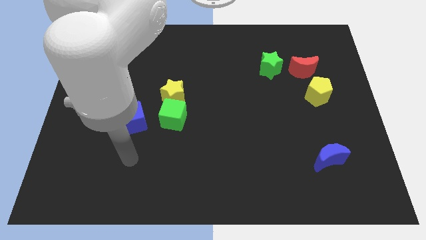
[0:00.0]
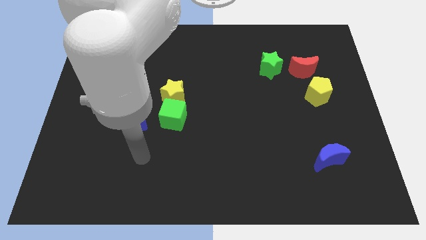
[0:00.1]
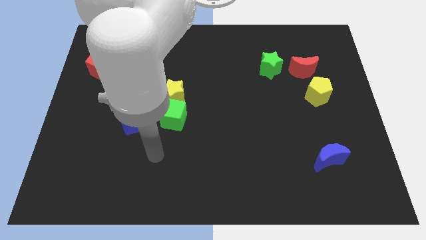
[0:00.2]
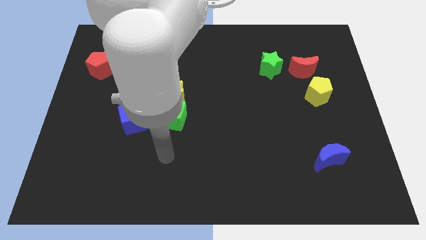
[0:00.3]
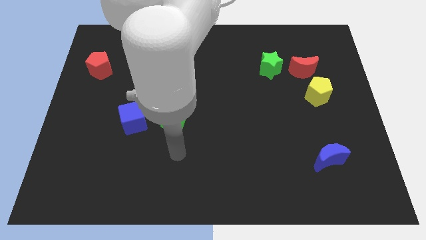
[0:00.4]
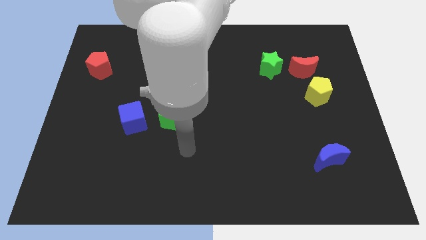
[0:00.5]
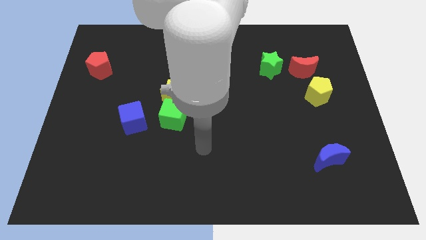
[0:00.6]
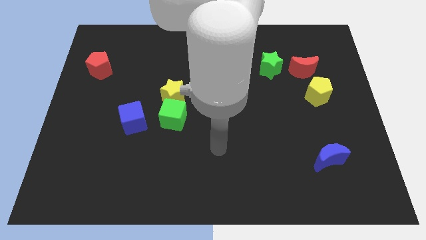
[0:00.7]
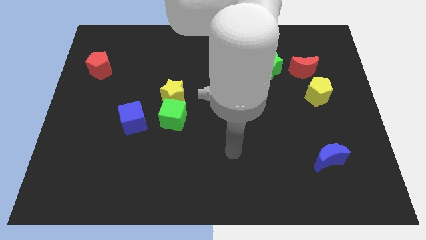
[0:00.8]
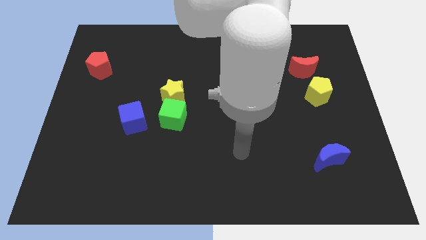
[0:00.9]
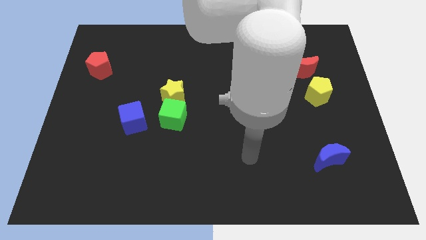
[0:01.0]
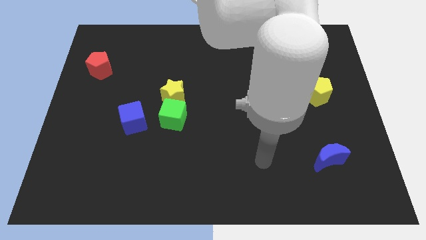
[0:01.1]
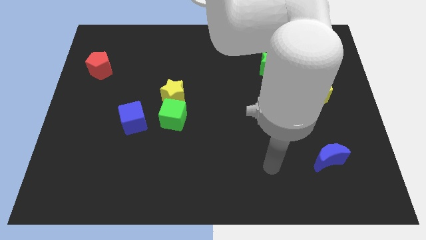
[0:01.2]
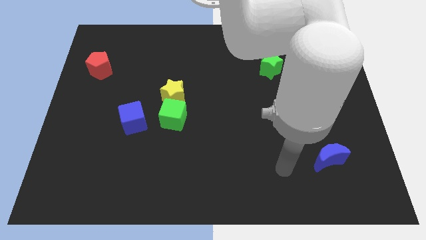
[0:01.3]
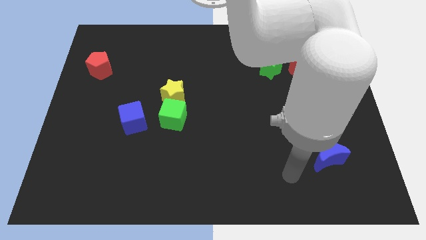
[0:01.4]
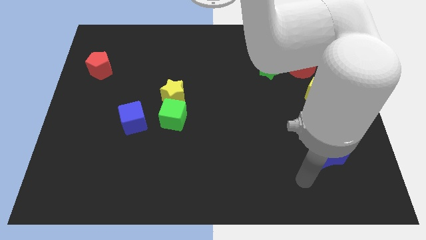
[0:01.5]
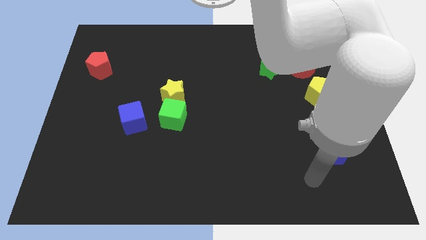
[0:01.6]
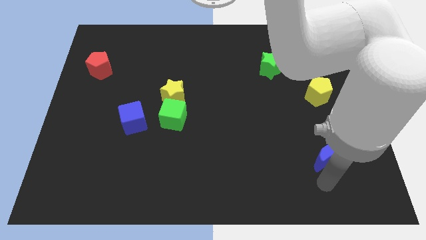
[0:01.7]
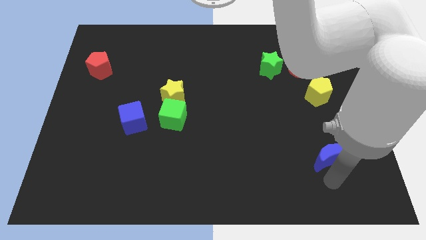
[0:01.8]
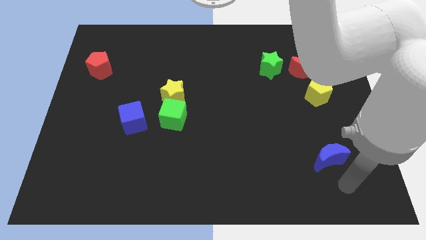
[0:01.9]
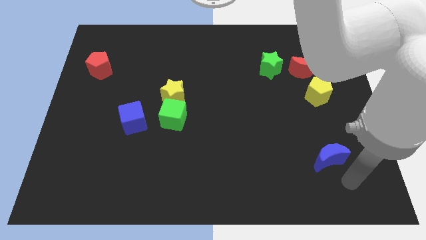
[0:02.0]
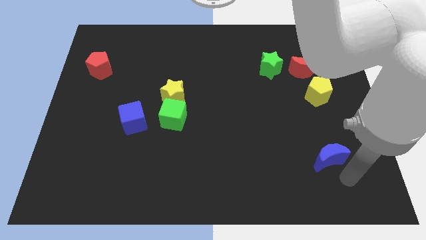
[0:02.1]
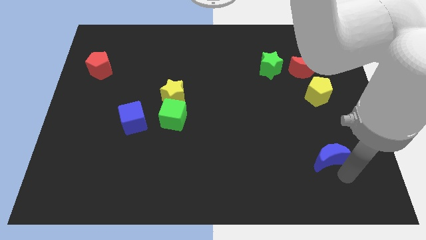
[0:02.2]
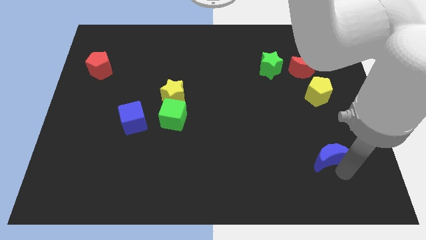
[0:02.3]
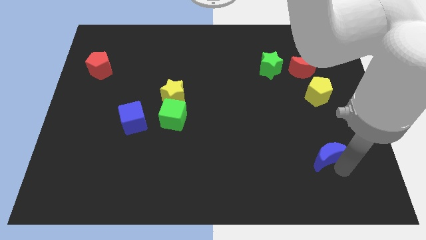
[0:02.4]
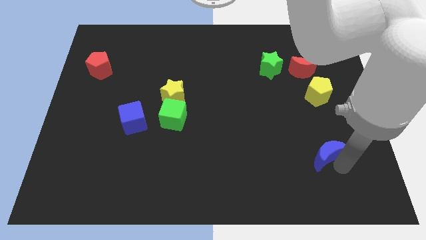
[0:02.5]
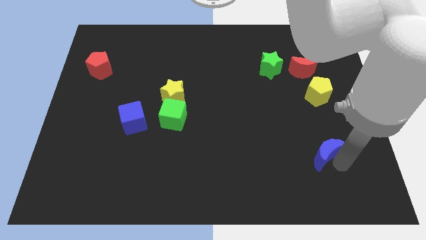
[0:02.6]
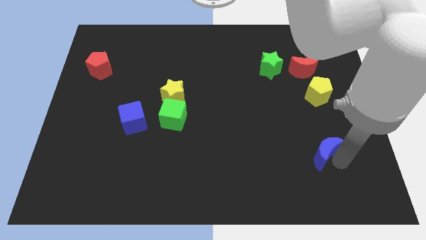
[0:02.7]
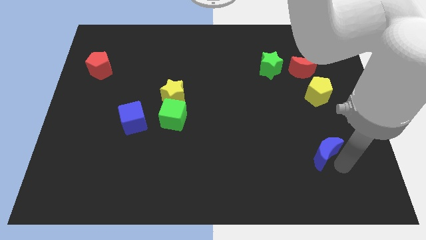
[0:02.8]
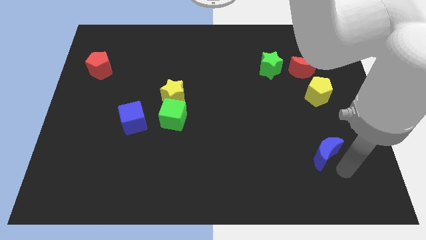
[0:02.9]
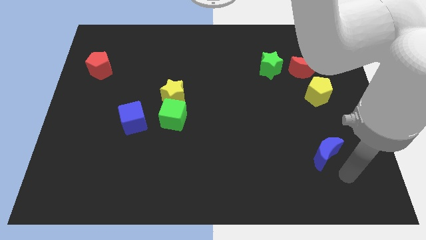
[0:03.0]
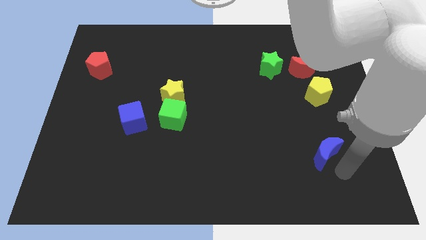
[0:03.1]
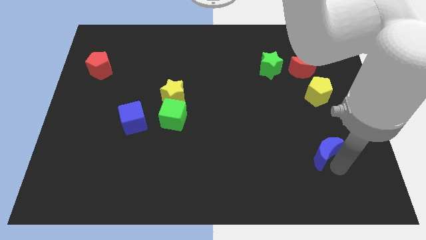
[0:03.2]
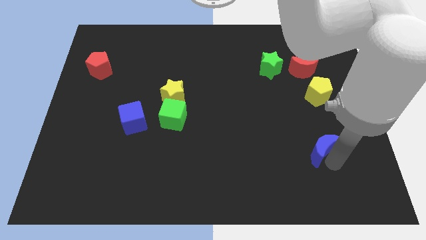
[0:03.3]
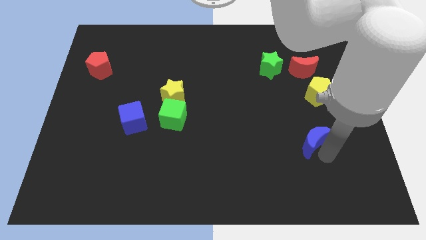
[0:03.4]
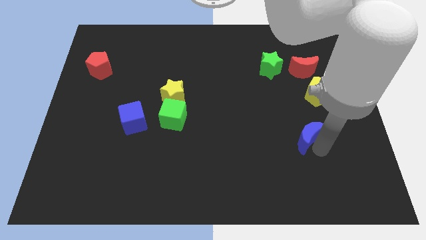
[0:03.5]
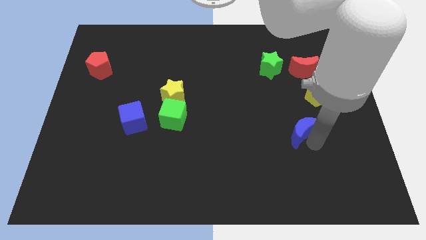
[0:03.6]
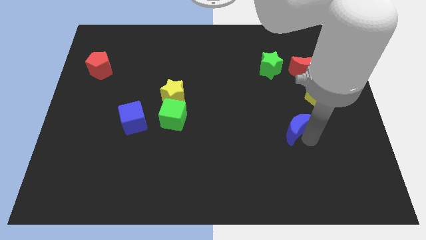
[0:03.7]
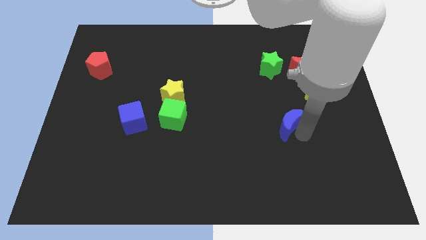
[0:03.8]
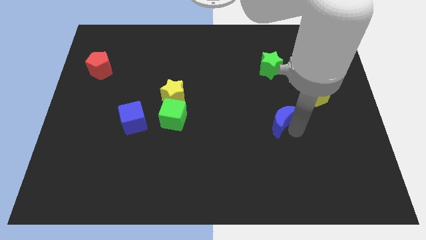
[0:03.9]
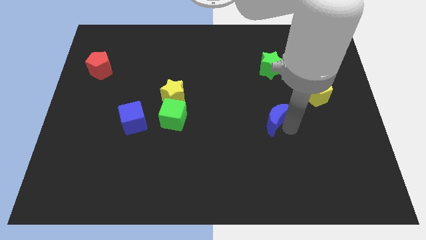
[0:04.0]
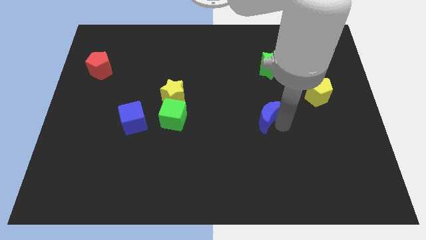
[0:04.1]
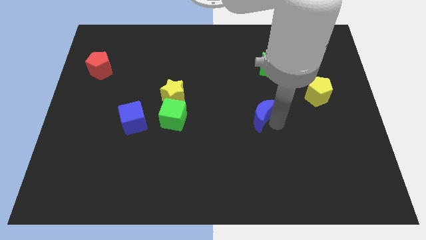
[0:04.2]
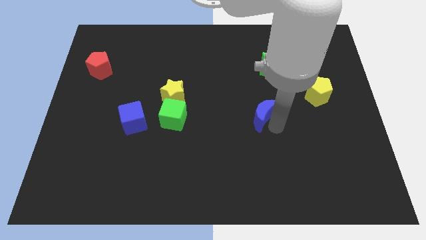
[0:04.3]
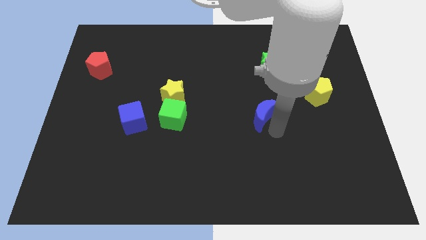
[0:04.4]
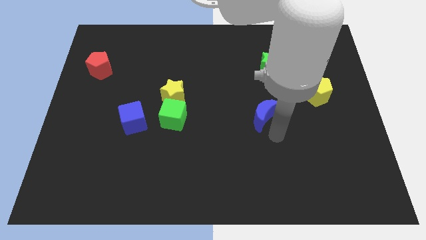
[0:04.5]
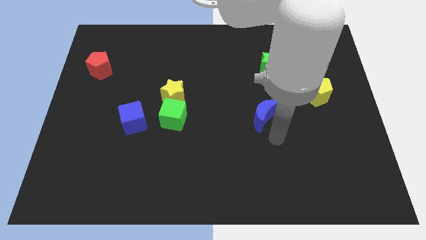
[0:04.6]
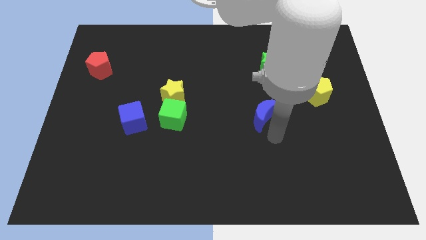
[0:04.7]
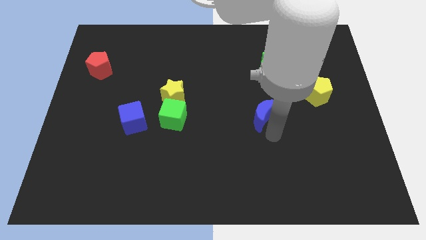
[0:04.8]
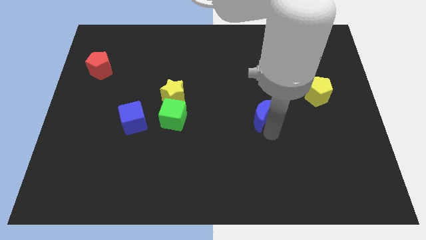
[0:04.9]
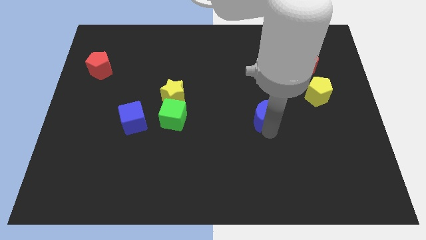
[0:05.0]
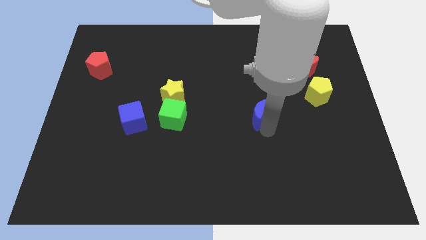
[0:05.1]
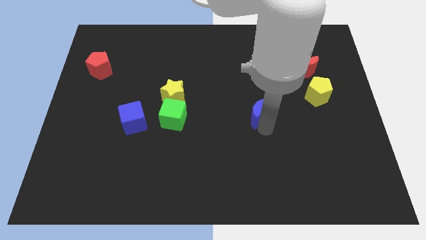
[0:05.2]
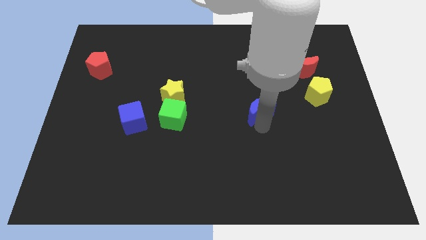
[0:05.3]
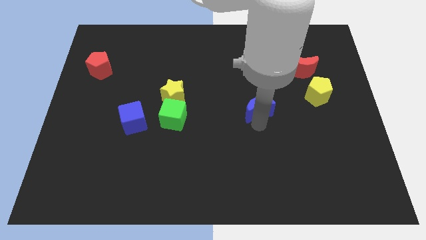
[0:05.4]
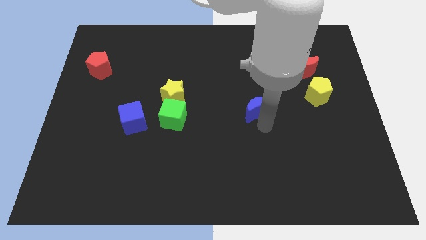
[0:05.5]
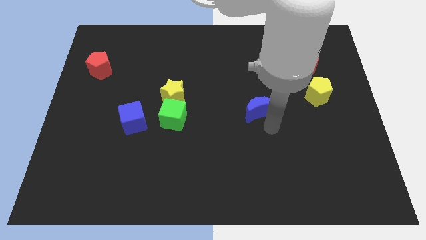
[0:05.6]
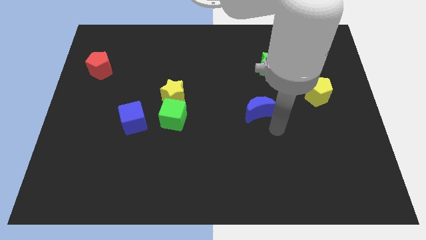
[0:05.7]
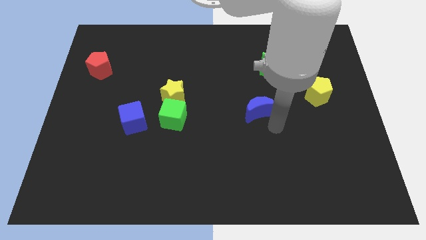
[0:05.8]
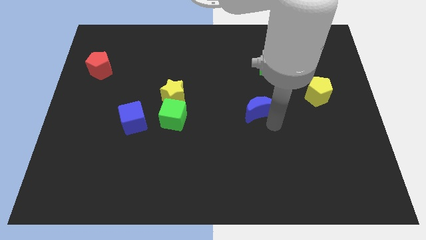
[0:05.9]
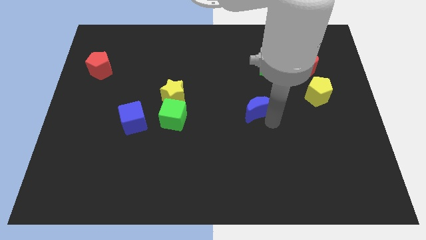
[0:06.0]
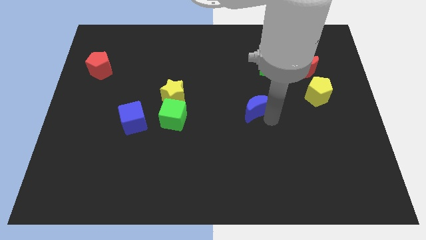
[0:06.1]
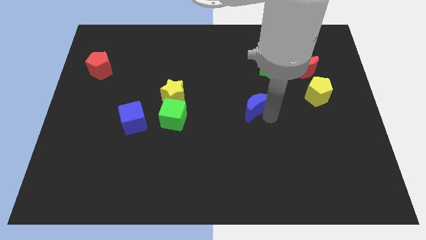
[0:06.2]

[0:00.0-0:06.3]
slide the blue moon diagonally upwards and left

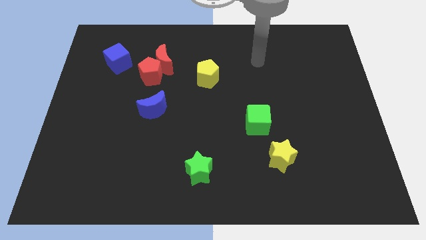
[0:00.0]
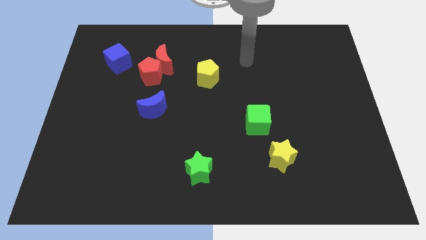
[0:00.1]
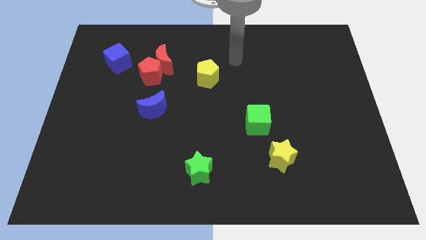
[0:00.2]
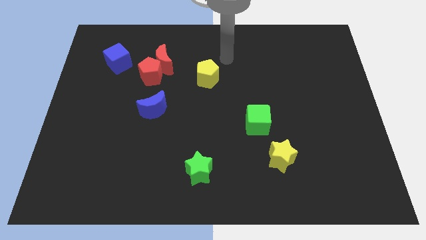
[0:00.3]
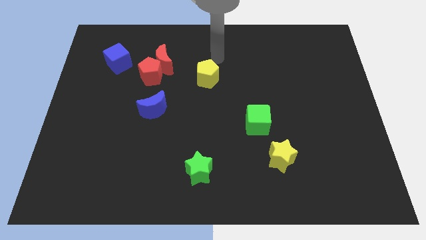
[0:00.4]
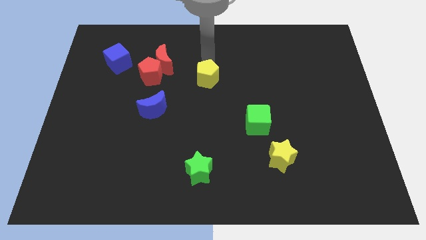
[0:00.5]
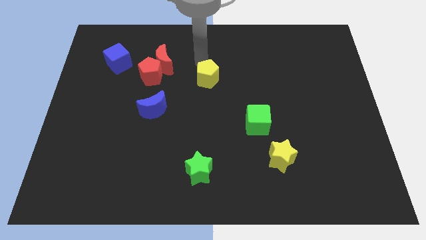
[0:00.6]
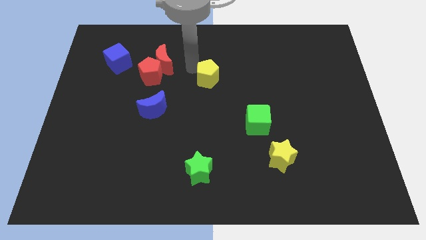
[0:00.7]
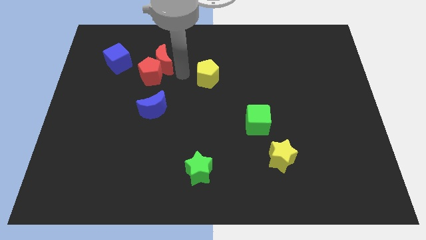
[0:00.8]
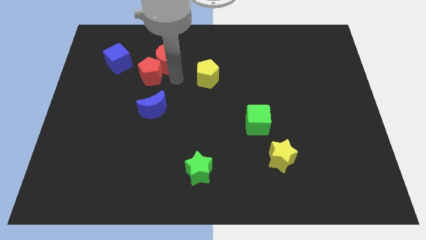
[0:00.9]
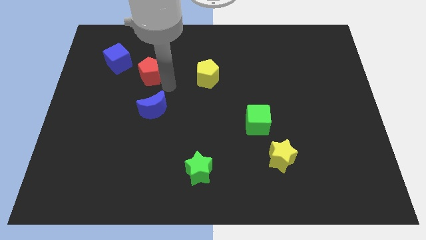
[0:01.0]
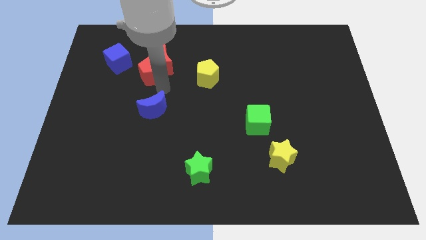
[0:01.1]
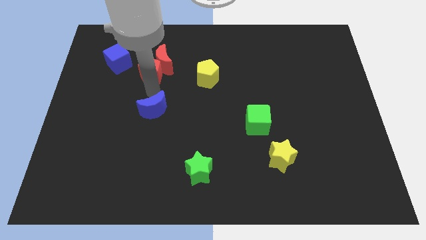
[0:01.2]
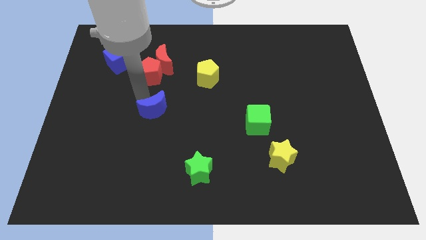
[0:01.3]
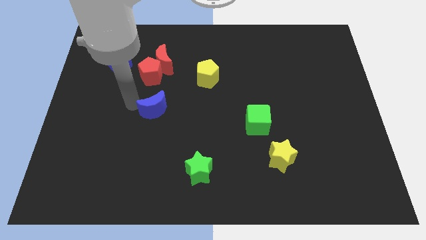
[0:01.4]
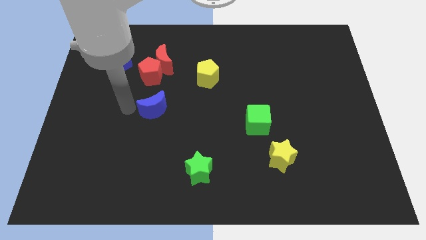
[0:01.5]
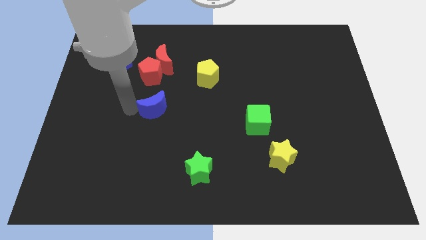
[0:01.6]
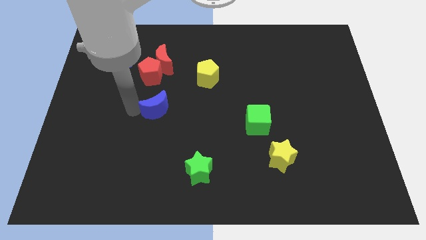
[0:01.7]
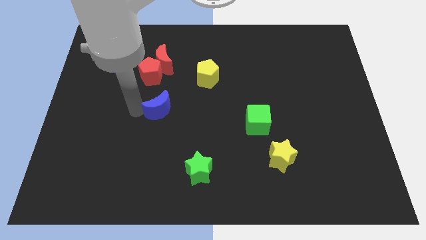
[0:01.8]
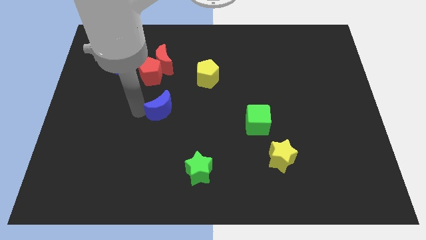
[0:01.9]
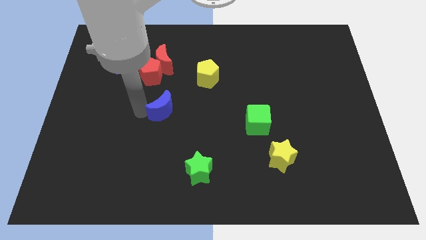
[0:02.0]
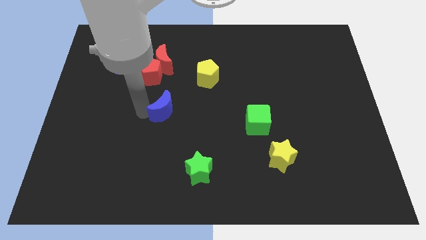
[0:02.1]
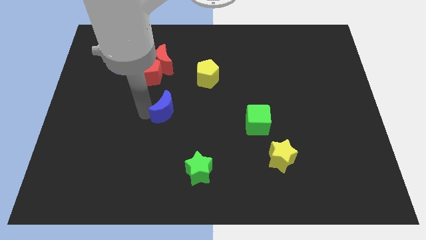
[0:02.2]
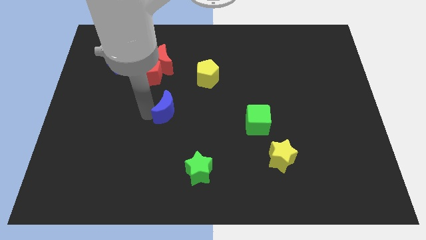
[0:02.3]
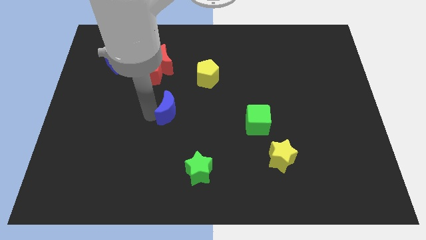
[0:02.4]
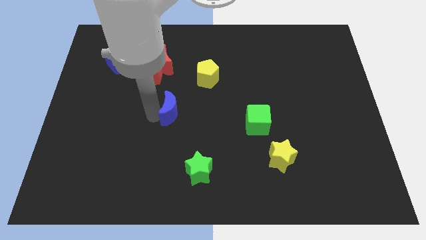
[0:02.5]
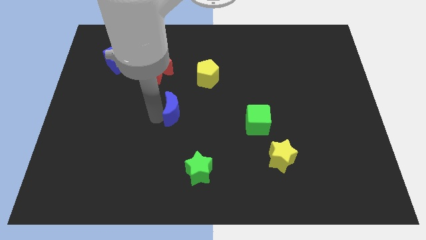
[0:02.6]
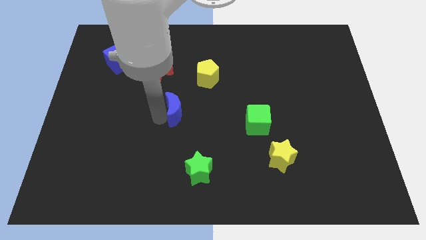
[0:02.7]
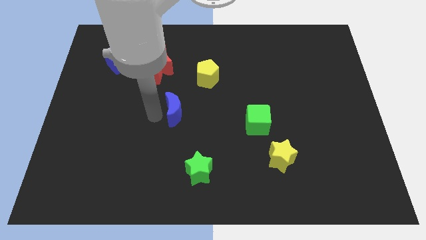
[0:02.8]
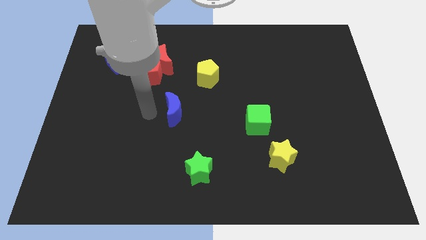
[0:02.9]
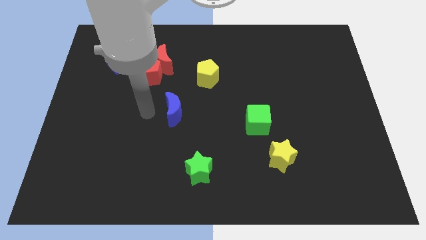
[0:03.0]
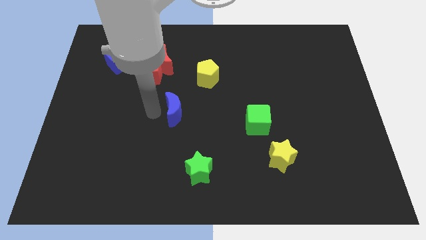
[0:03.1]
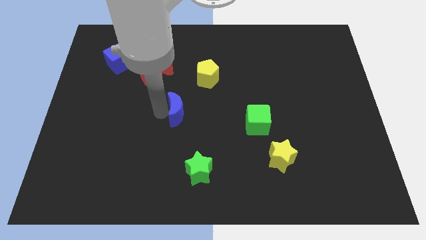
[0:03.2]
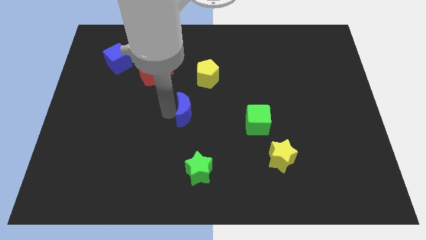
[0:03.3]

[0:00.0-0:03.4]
slide the blue moon right slightly
